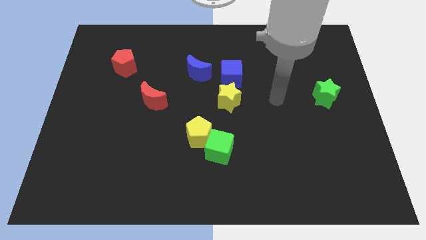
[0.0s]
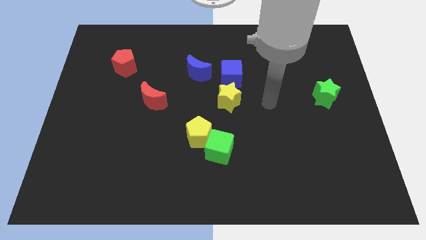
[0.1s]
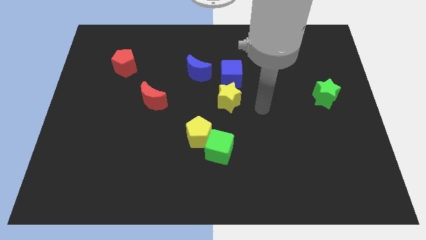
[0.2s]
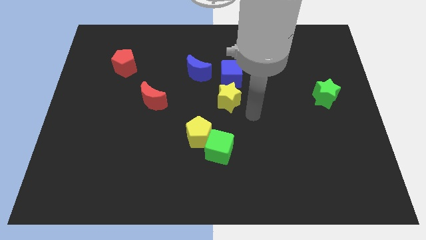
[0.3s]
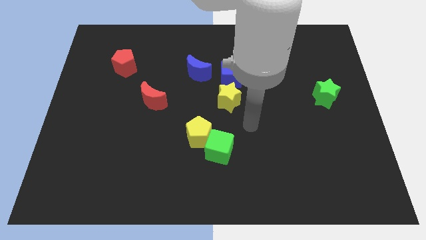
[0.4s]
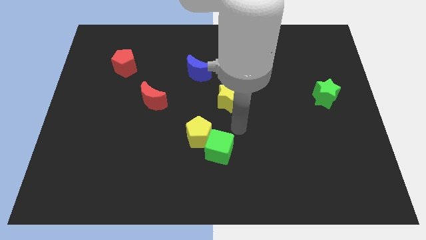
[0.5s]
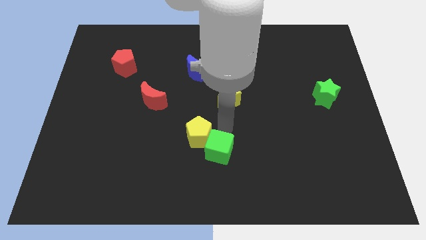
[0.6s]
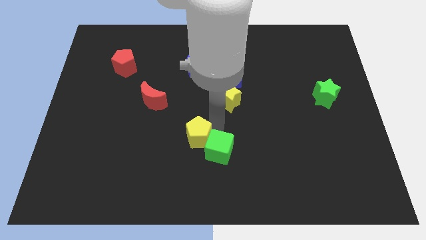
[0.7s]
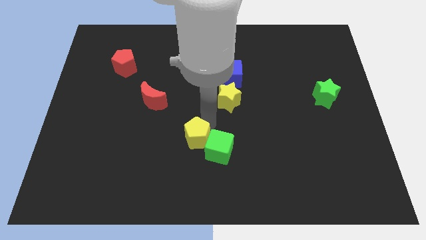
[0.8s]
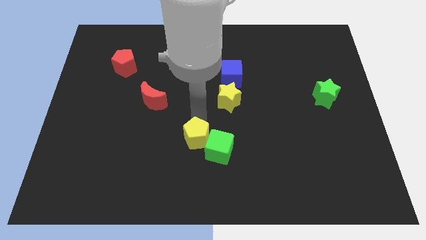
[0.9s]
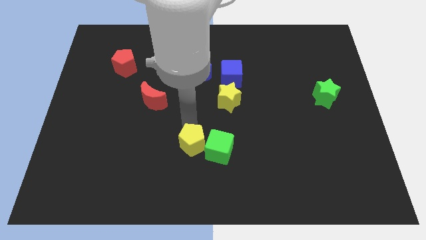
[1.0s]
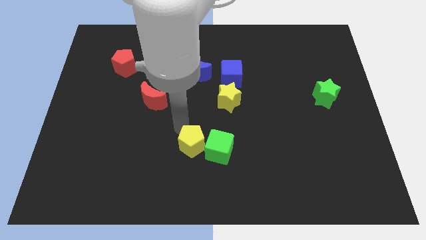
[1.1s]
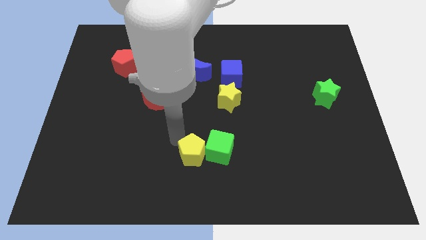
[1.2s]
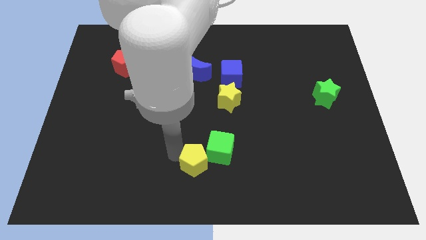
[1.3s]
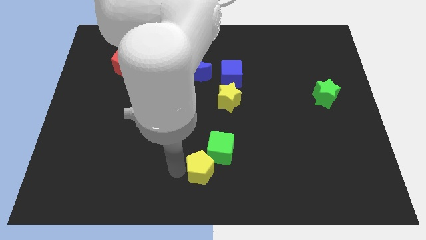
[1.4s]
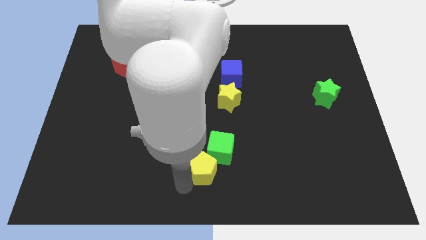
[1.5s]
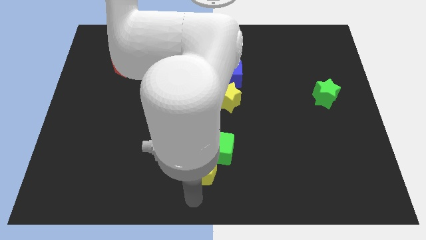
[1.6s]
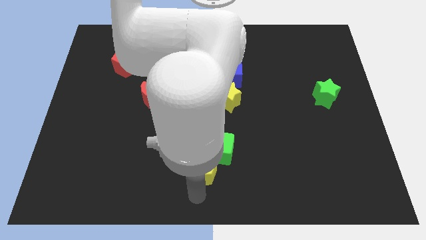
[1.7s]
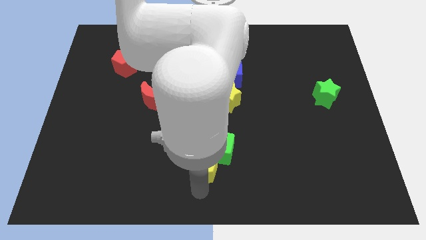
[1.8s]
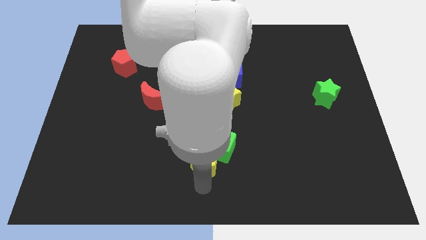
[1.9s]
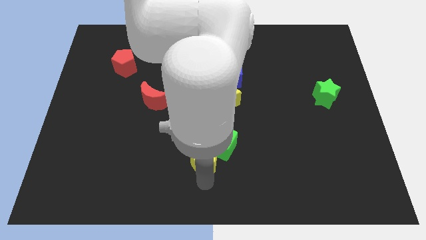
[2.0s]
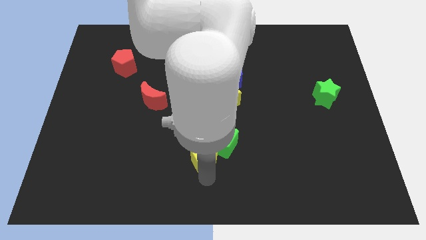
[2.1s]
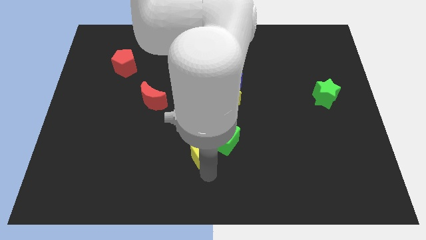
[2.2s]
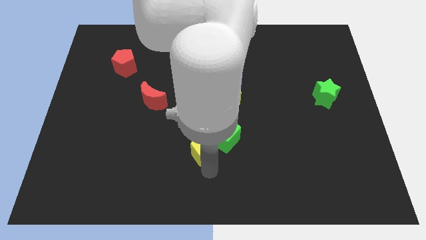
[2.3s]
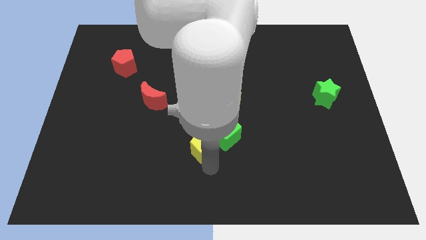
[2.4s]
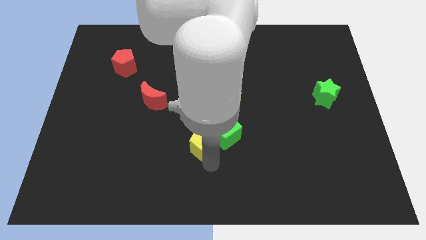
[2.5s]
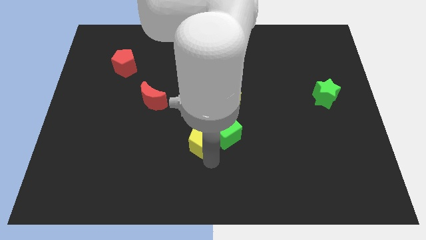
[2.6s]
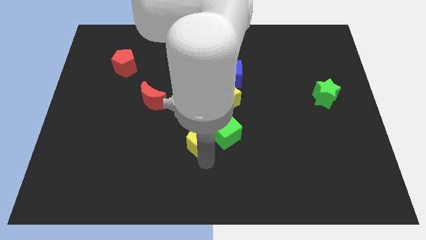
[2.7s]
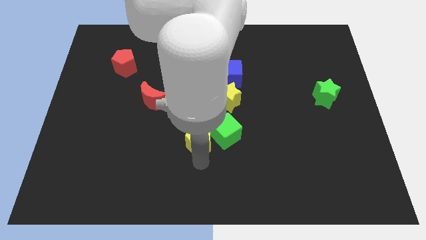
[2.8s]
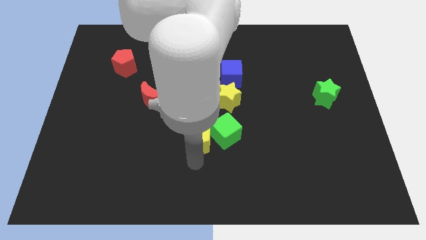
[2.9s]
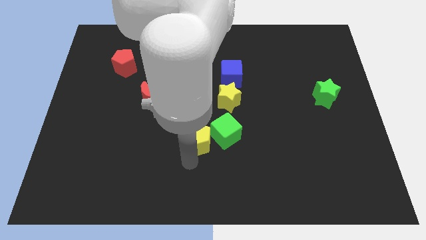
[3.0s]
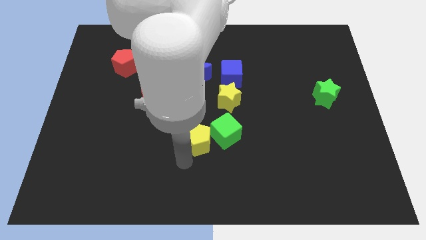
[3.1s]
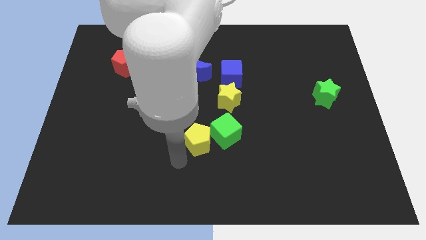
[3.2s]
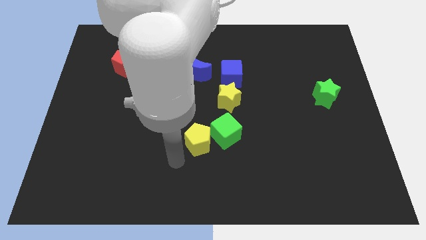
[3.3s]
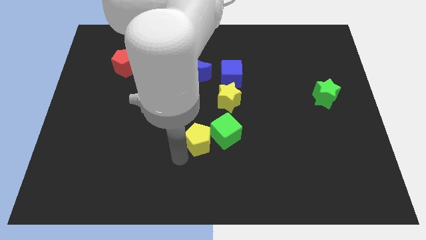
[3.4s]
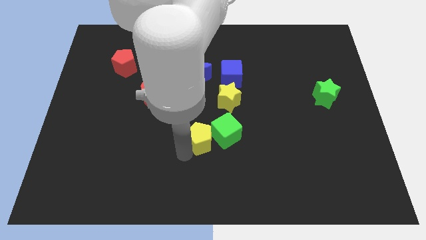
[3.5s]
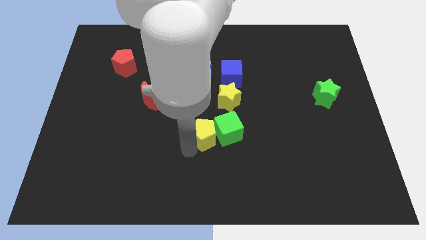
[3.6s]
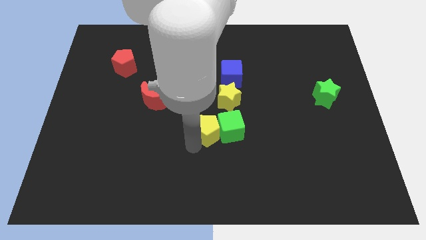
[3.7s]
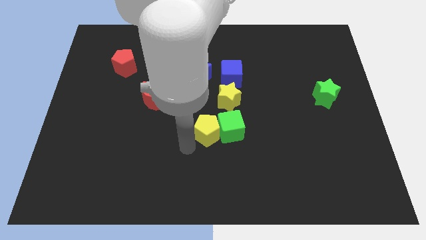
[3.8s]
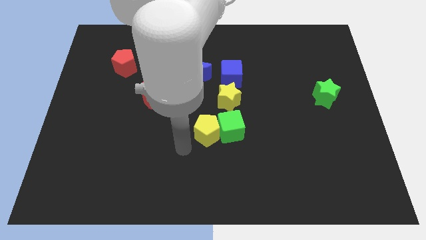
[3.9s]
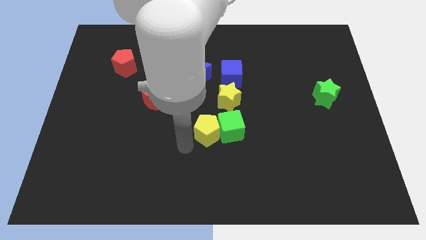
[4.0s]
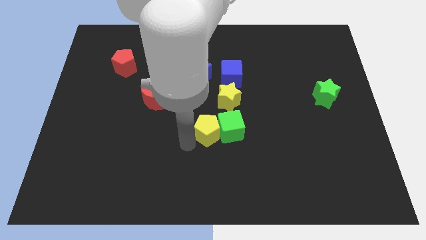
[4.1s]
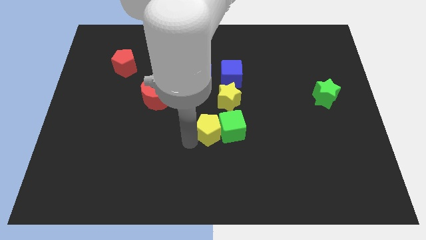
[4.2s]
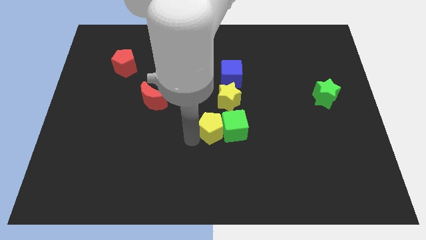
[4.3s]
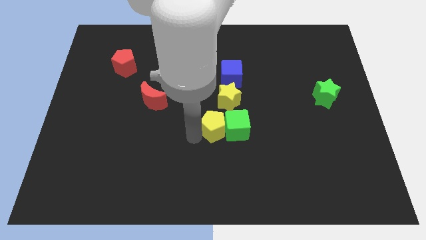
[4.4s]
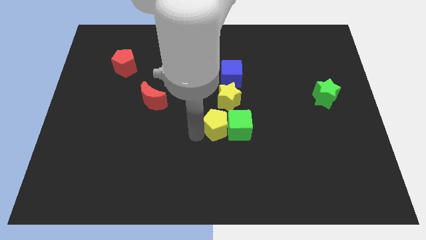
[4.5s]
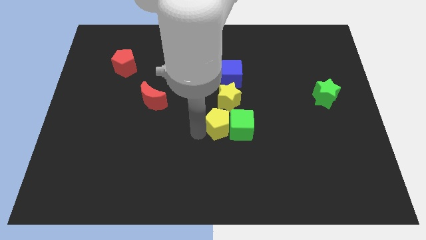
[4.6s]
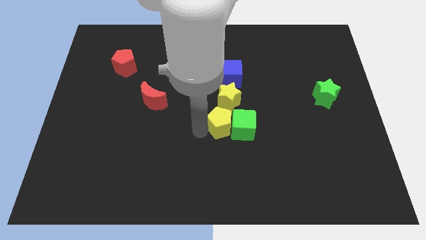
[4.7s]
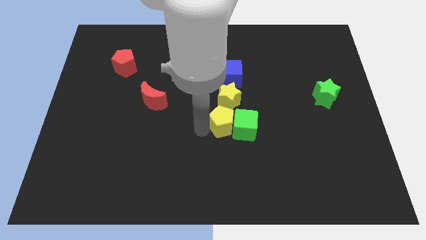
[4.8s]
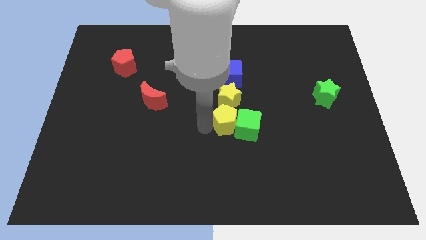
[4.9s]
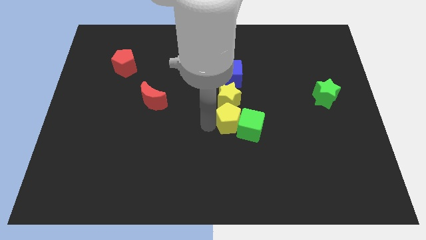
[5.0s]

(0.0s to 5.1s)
move the yellow pentagon slightly upwards and then to the right

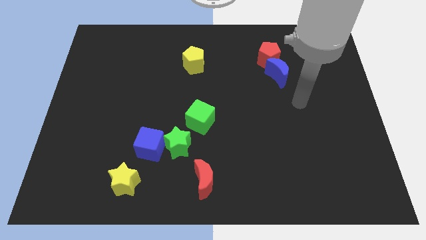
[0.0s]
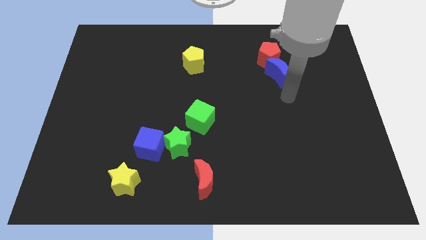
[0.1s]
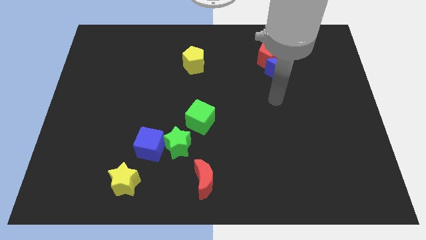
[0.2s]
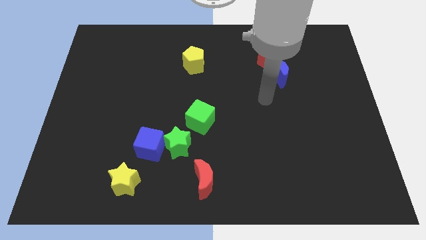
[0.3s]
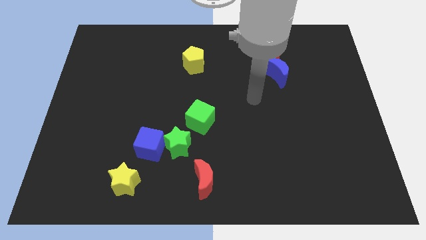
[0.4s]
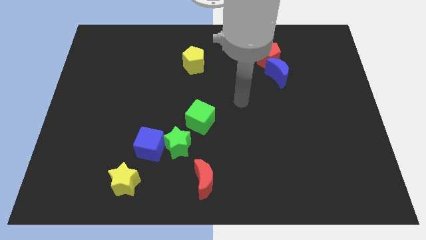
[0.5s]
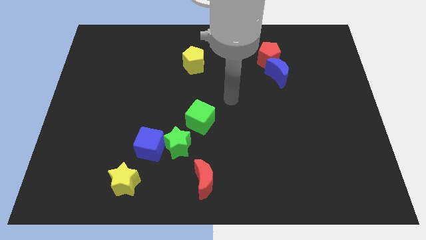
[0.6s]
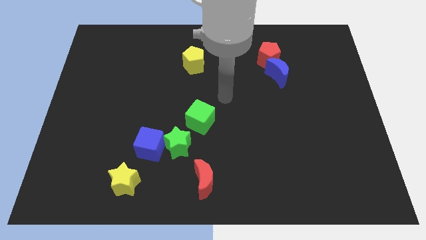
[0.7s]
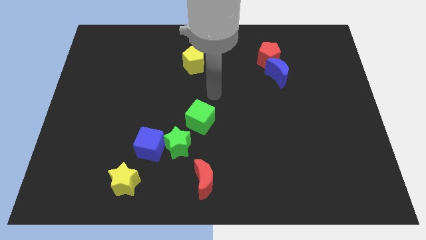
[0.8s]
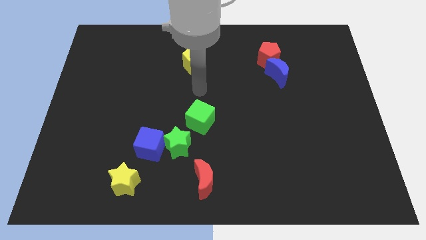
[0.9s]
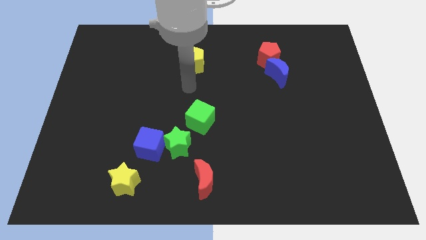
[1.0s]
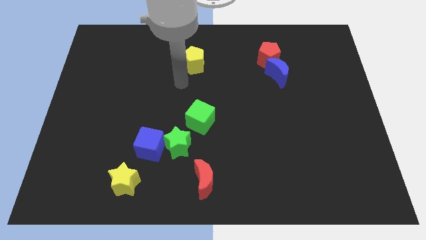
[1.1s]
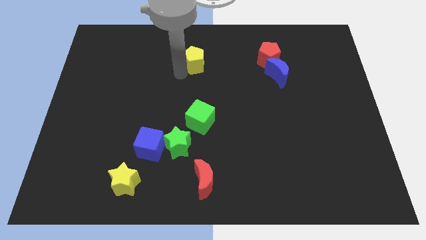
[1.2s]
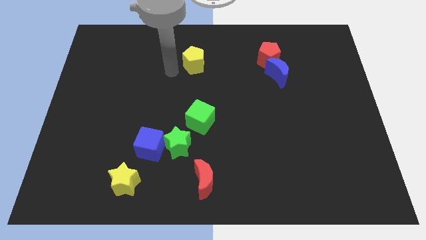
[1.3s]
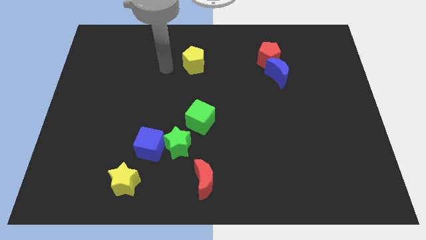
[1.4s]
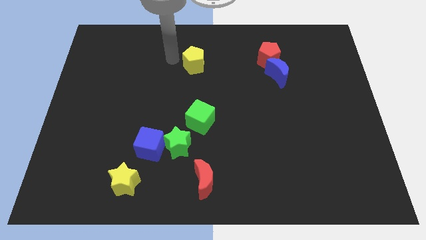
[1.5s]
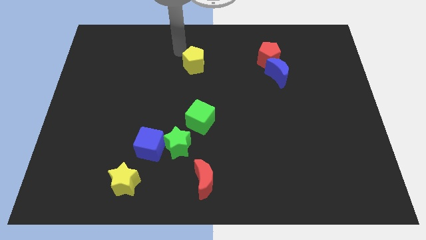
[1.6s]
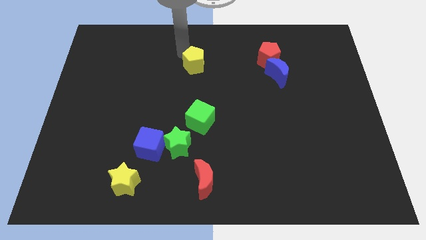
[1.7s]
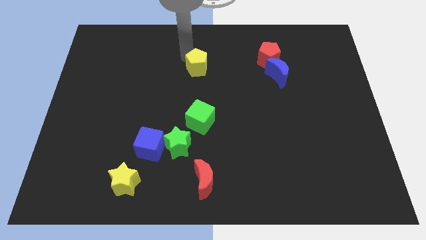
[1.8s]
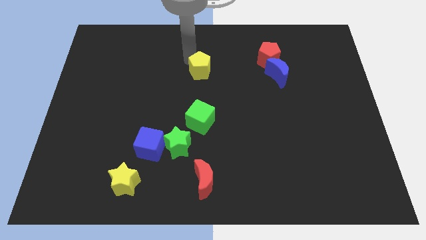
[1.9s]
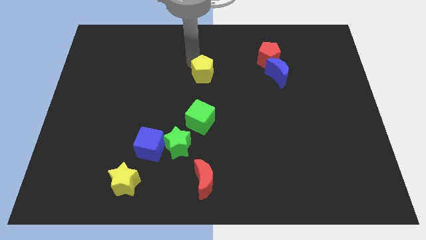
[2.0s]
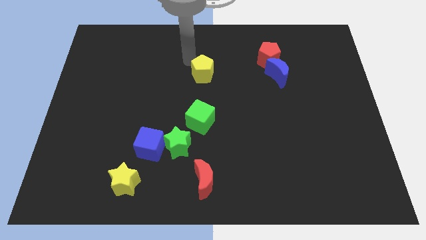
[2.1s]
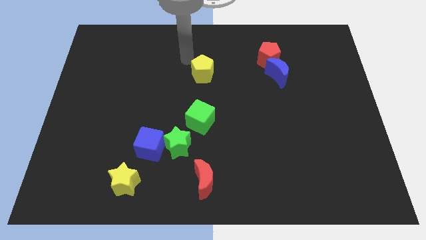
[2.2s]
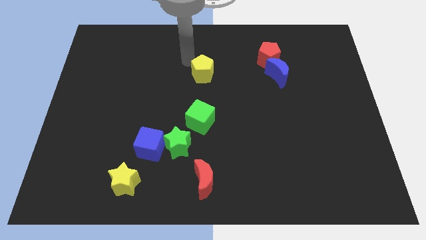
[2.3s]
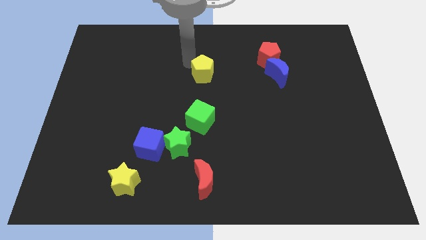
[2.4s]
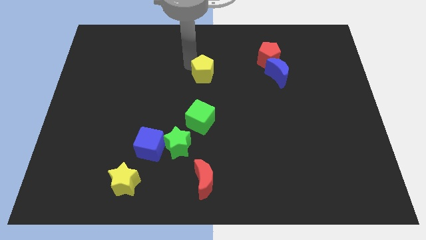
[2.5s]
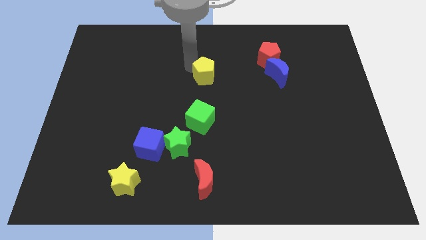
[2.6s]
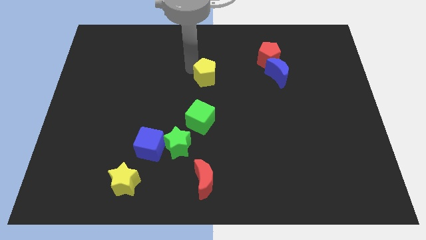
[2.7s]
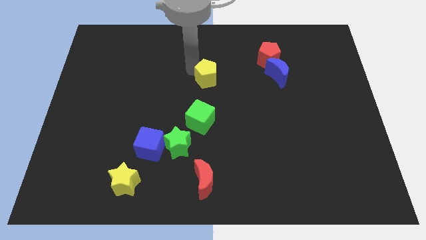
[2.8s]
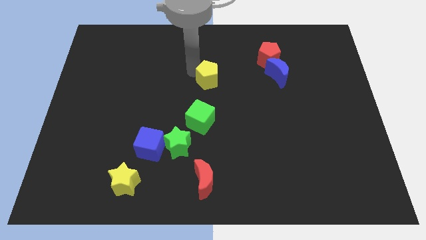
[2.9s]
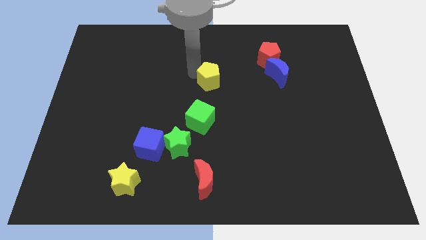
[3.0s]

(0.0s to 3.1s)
move the yellow pentagon diagonally downwards and to the right a little
